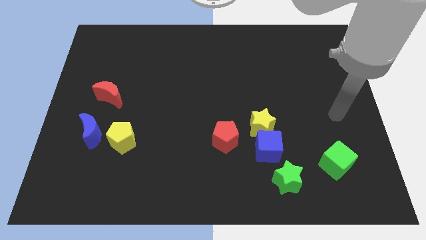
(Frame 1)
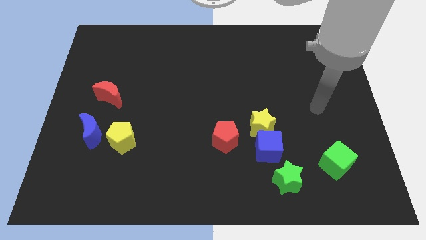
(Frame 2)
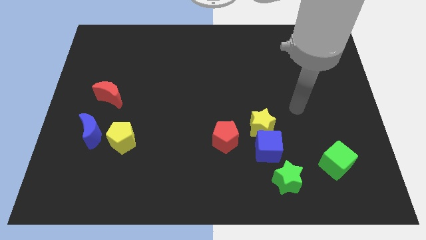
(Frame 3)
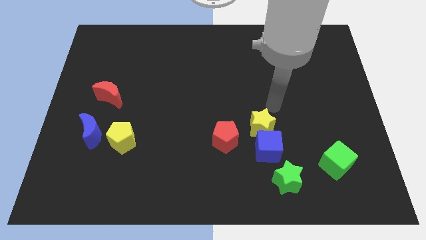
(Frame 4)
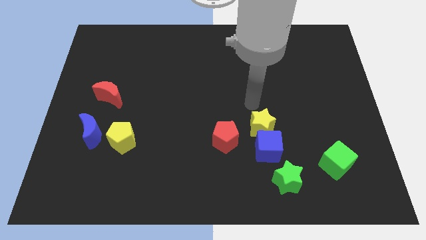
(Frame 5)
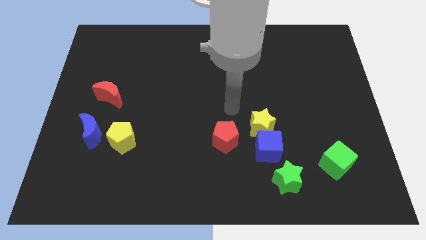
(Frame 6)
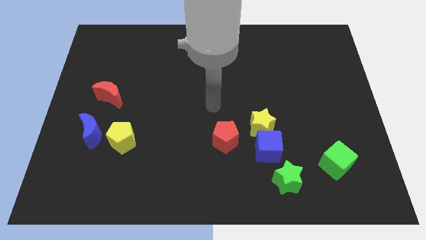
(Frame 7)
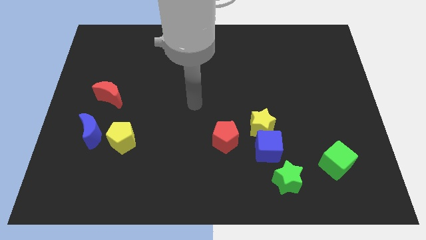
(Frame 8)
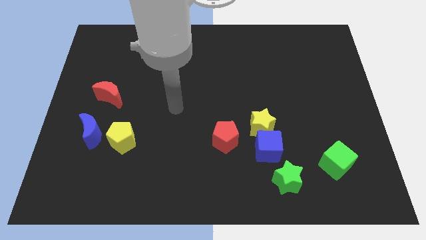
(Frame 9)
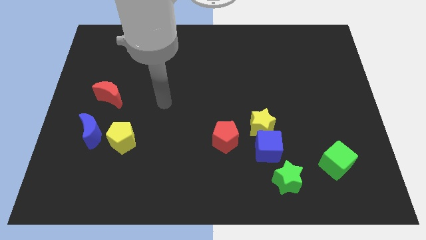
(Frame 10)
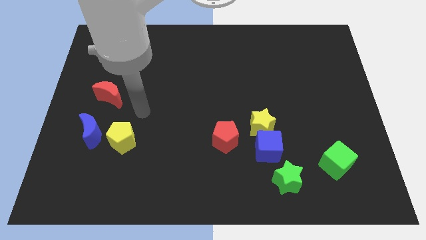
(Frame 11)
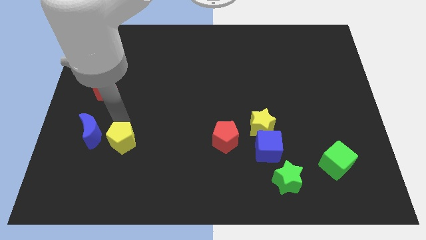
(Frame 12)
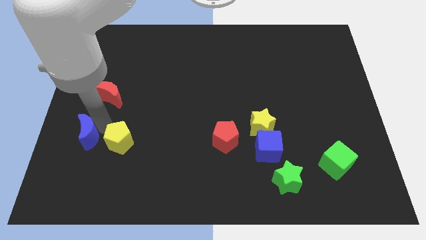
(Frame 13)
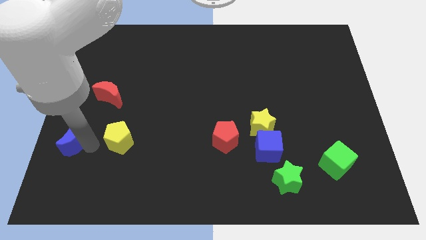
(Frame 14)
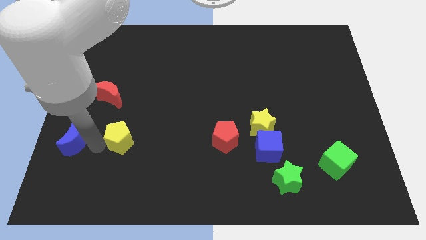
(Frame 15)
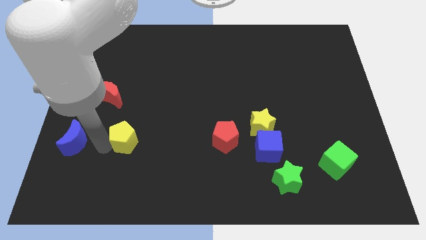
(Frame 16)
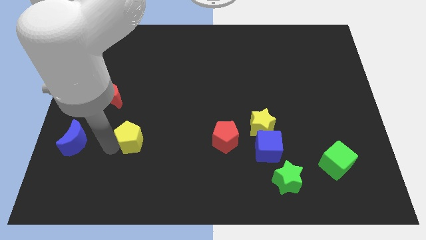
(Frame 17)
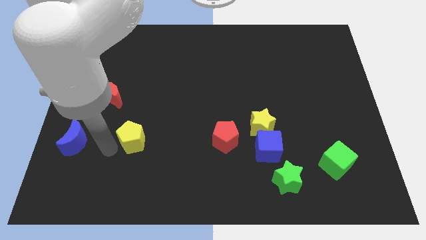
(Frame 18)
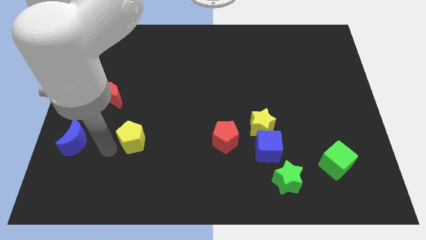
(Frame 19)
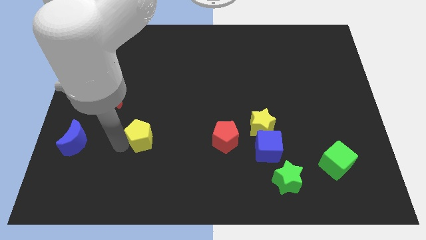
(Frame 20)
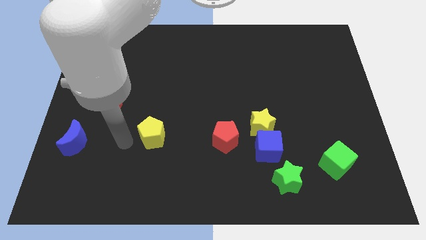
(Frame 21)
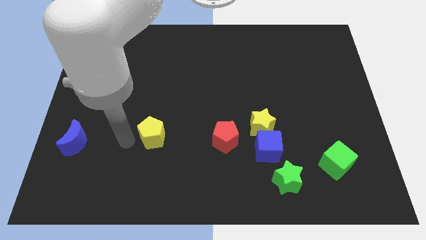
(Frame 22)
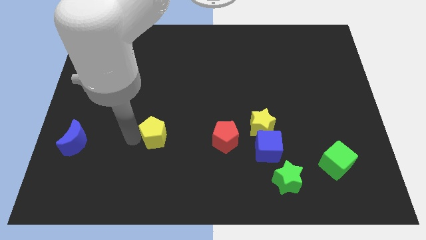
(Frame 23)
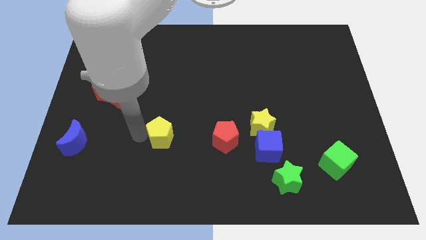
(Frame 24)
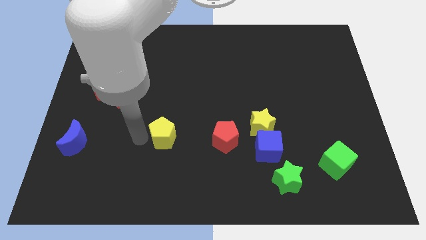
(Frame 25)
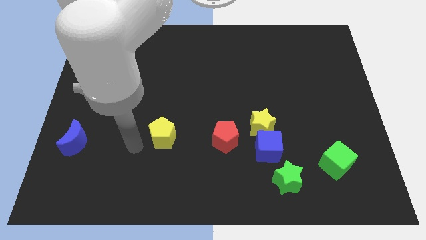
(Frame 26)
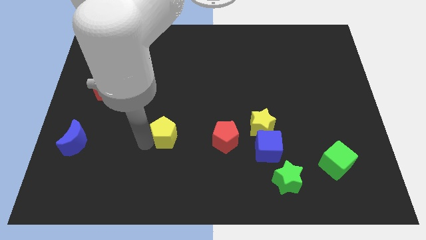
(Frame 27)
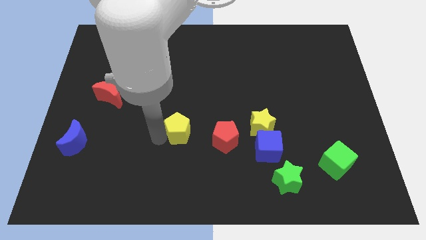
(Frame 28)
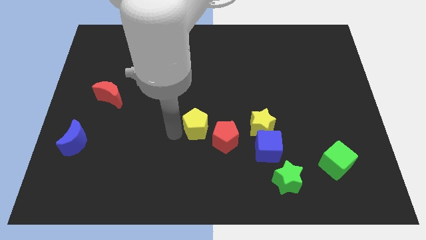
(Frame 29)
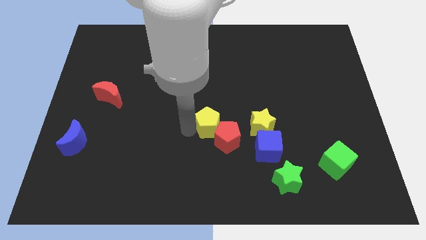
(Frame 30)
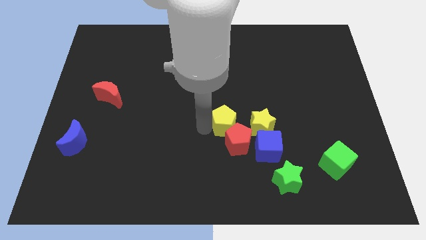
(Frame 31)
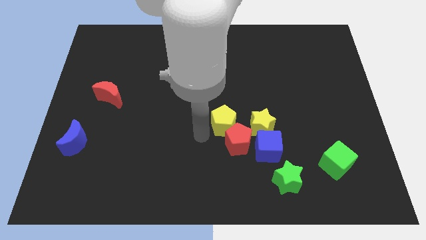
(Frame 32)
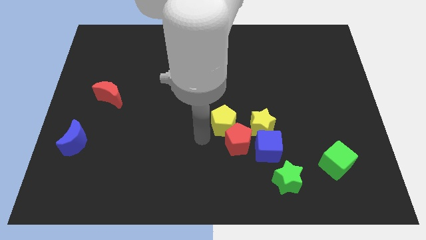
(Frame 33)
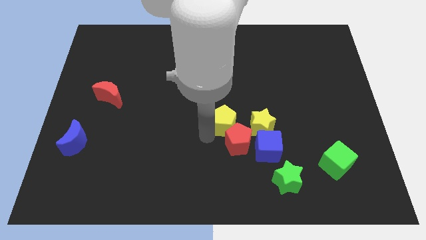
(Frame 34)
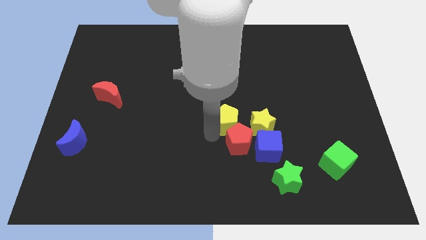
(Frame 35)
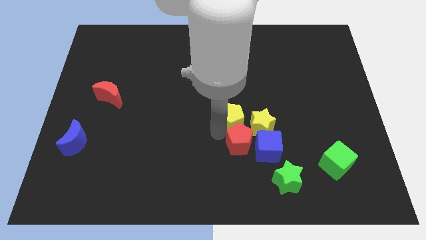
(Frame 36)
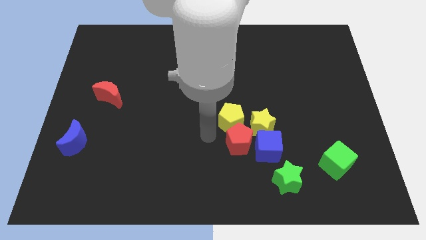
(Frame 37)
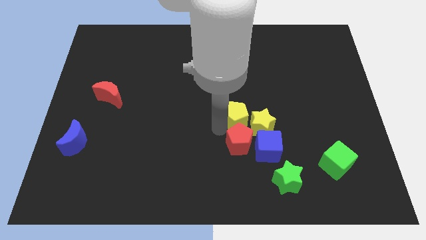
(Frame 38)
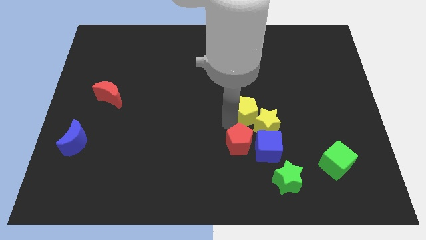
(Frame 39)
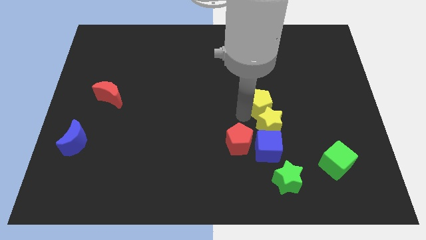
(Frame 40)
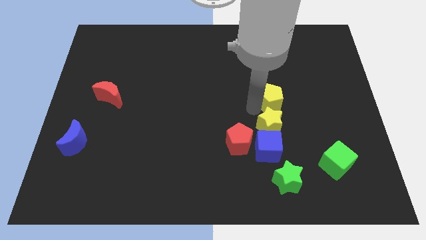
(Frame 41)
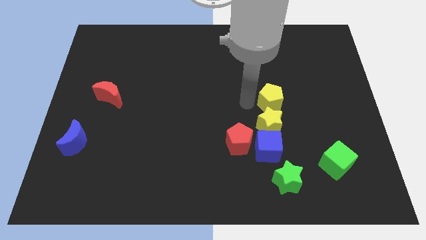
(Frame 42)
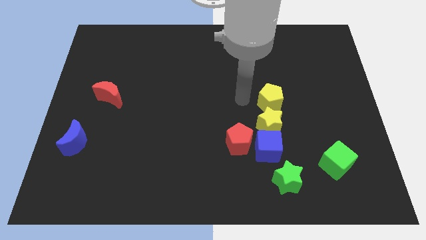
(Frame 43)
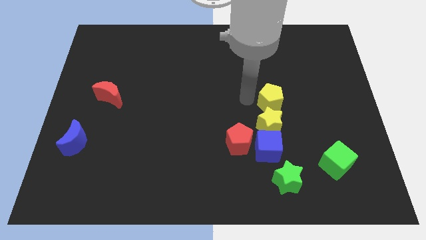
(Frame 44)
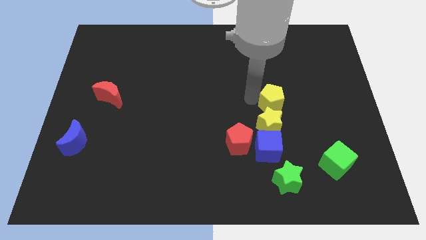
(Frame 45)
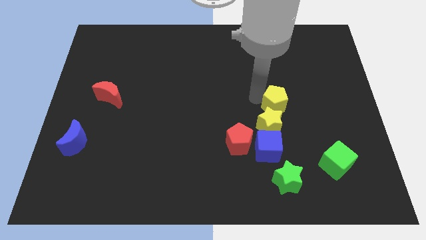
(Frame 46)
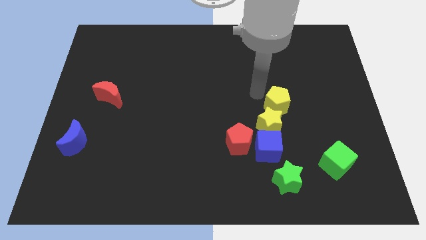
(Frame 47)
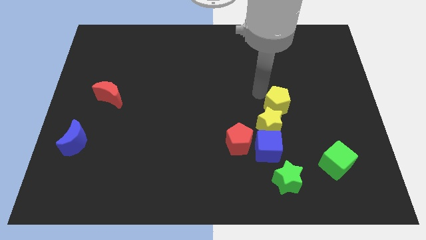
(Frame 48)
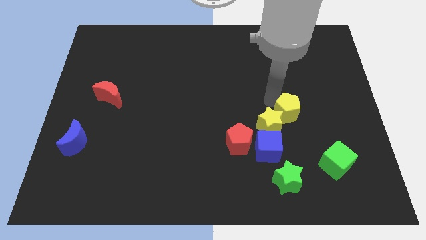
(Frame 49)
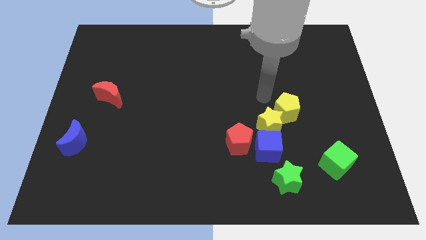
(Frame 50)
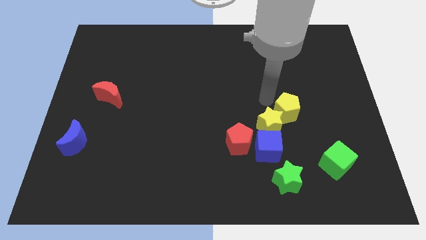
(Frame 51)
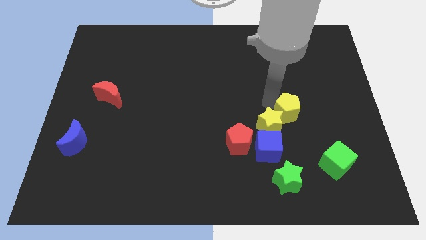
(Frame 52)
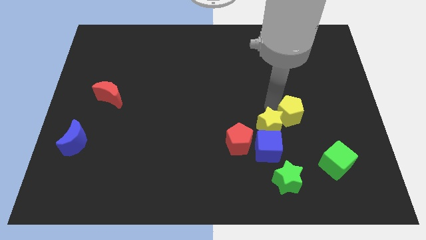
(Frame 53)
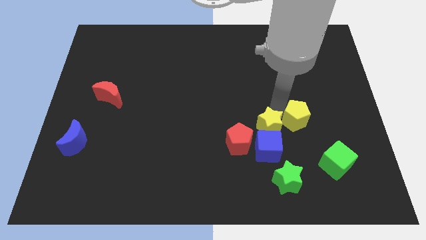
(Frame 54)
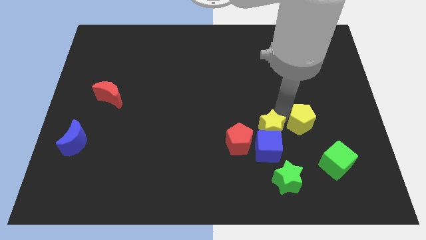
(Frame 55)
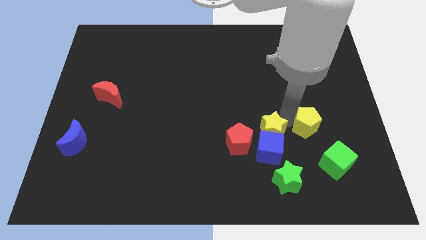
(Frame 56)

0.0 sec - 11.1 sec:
slide the yellow pentagon to the top of the green cube

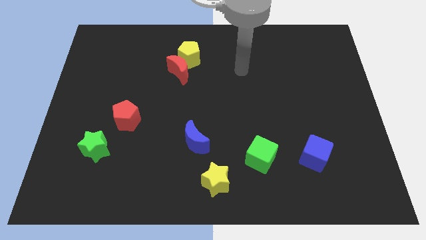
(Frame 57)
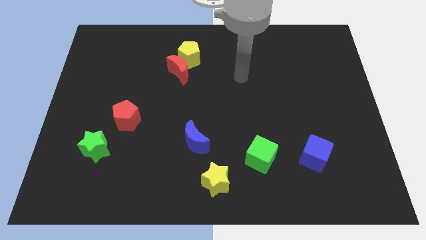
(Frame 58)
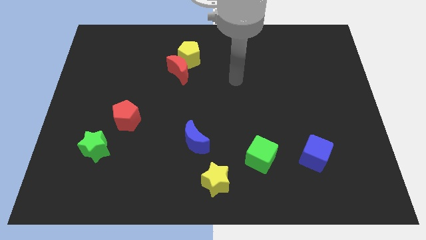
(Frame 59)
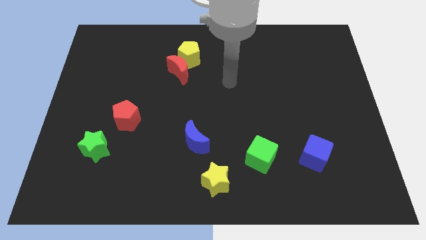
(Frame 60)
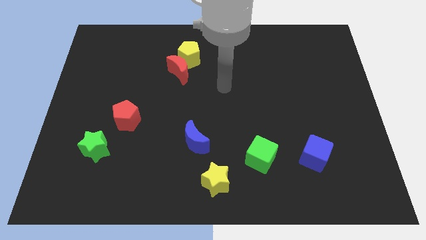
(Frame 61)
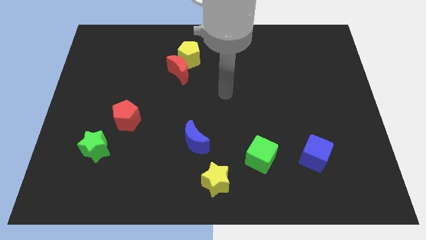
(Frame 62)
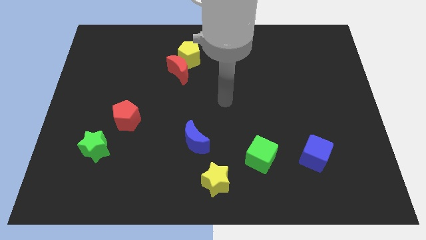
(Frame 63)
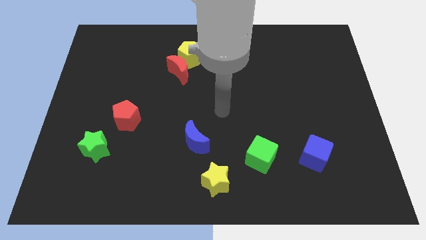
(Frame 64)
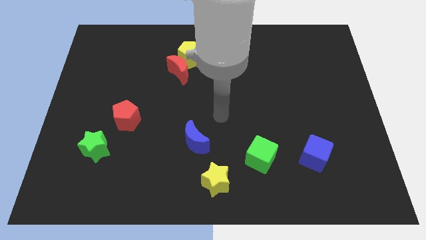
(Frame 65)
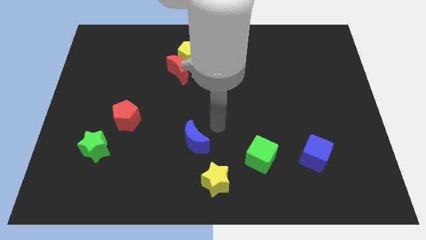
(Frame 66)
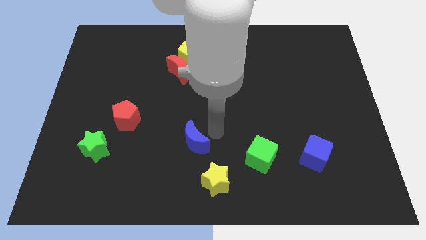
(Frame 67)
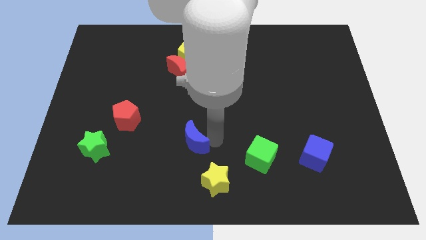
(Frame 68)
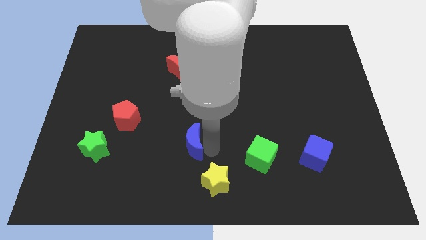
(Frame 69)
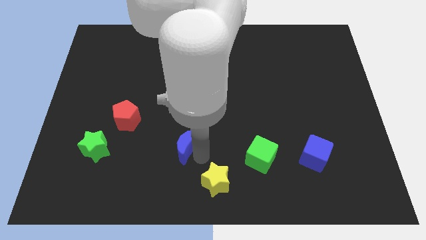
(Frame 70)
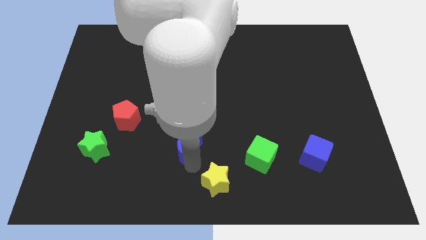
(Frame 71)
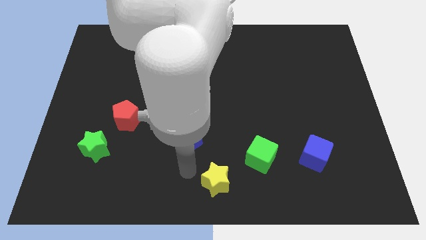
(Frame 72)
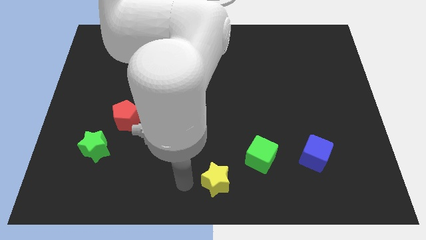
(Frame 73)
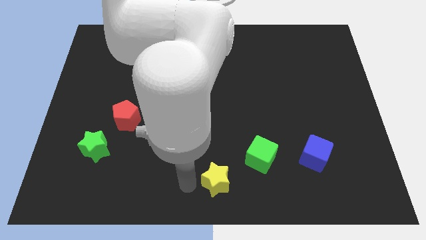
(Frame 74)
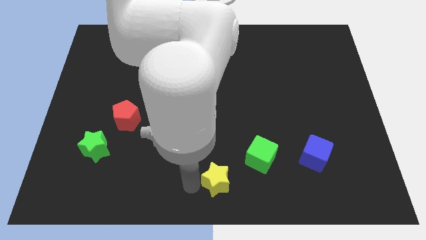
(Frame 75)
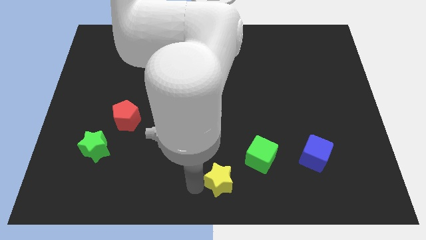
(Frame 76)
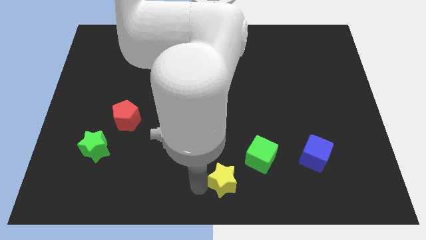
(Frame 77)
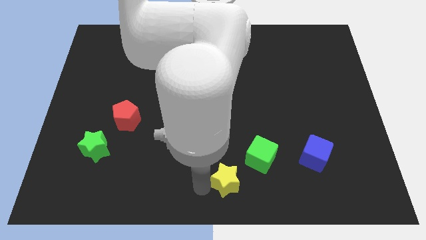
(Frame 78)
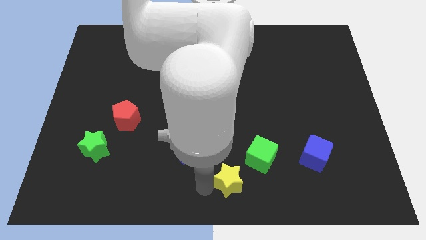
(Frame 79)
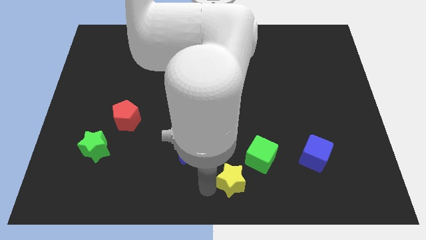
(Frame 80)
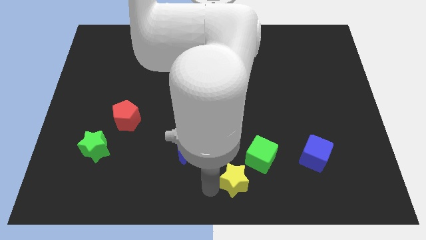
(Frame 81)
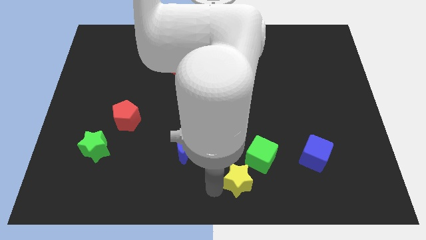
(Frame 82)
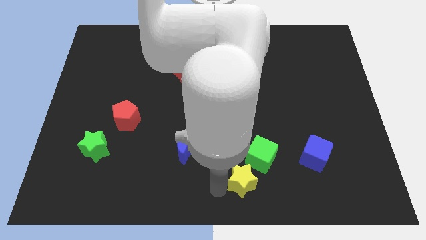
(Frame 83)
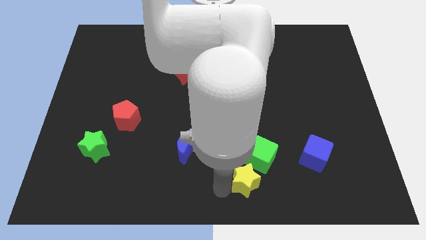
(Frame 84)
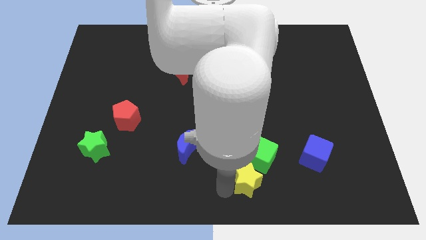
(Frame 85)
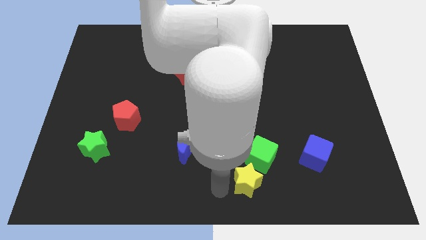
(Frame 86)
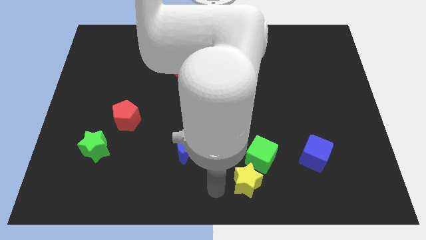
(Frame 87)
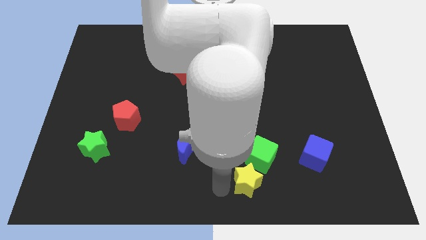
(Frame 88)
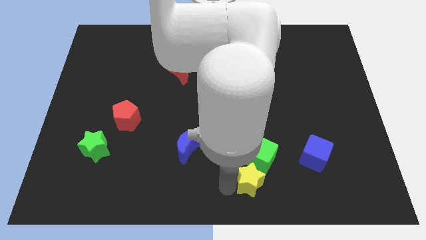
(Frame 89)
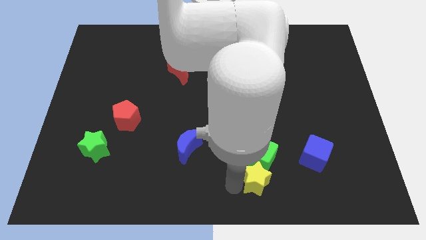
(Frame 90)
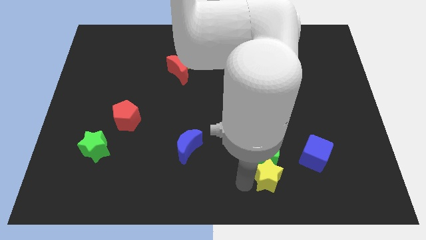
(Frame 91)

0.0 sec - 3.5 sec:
slide the yellow star to the bottom left of the blue cube
